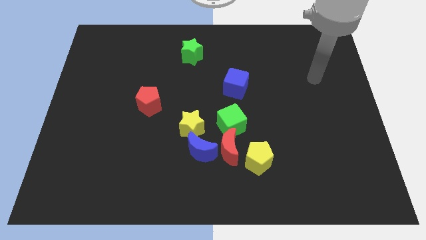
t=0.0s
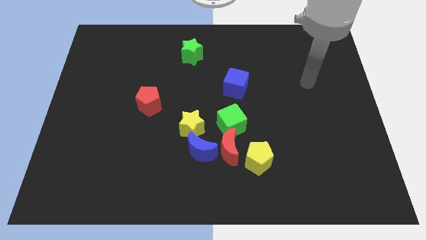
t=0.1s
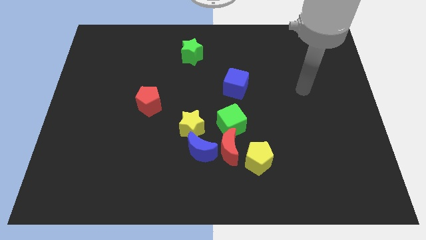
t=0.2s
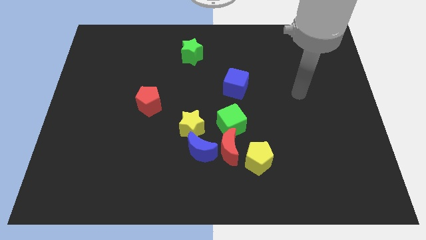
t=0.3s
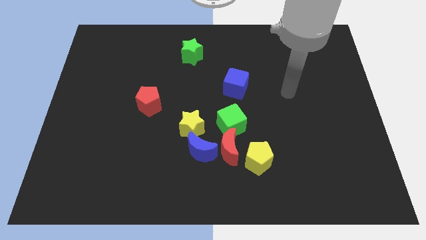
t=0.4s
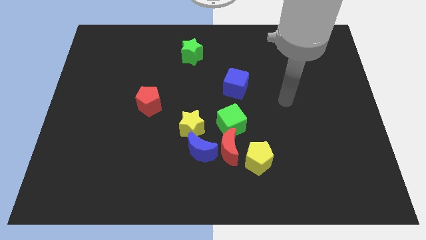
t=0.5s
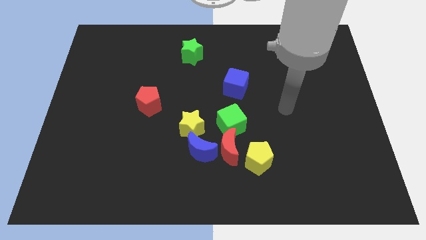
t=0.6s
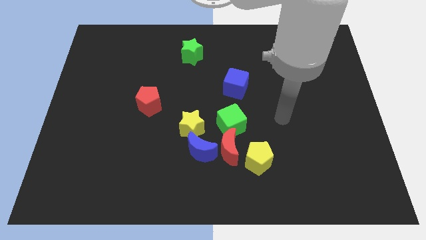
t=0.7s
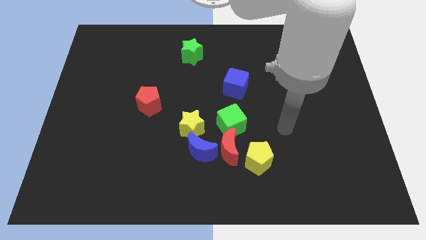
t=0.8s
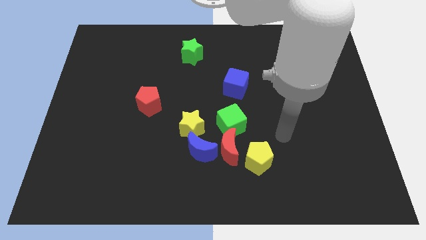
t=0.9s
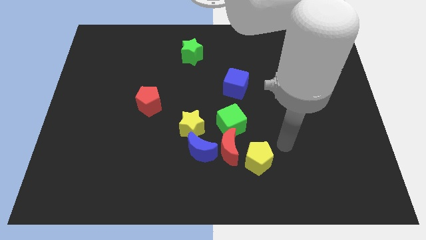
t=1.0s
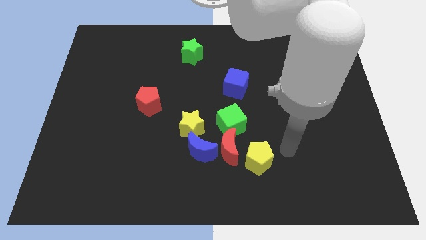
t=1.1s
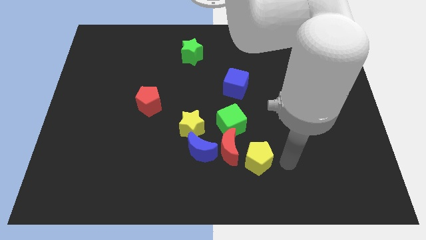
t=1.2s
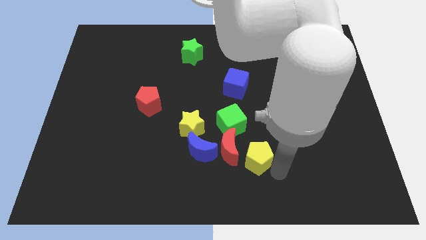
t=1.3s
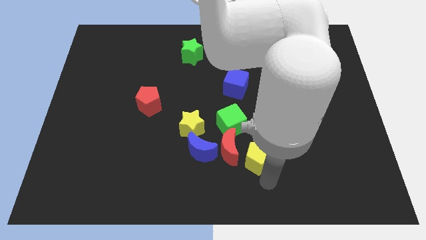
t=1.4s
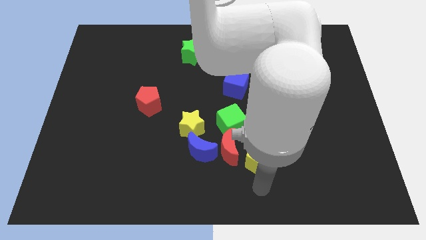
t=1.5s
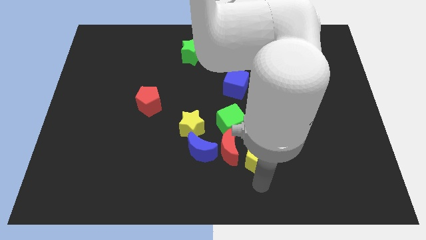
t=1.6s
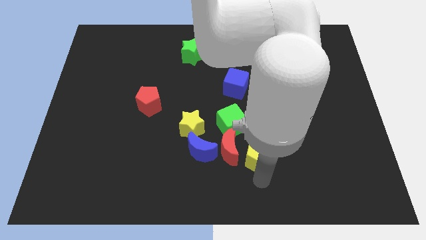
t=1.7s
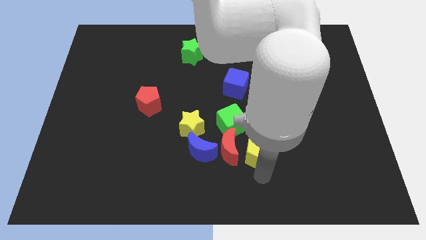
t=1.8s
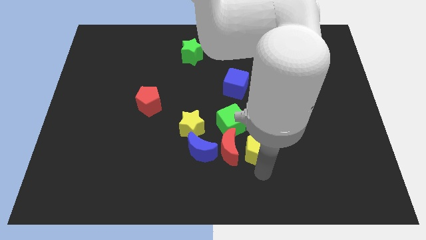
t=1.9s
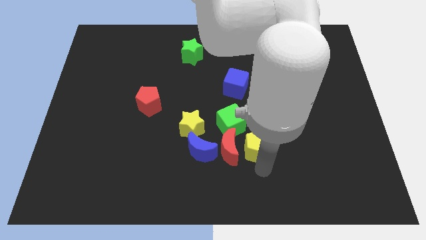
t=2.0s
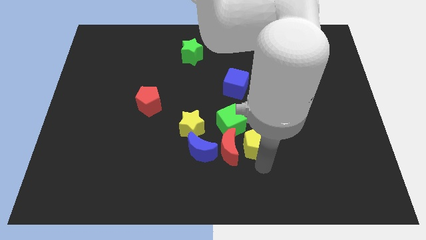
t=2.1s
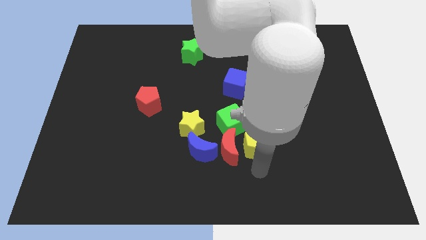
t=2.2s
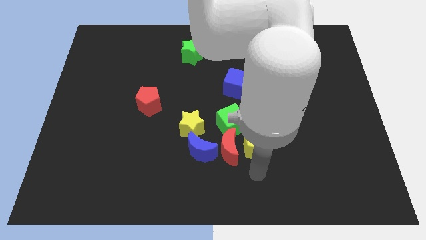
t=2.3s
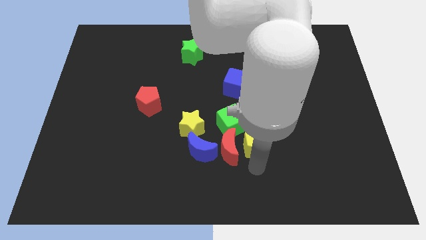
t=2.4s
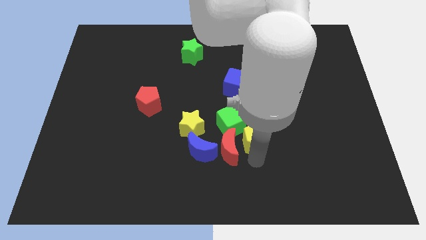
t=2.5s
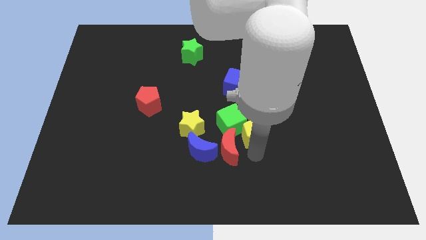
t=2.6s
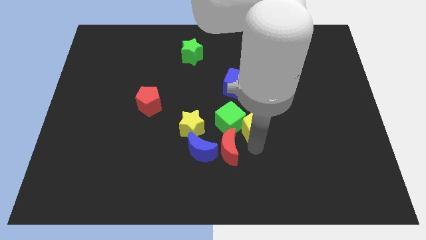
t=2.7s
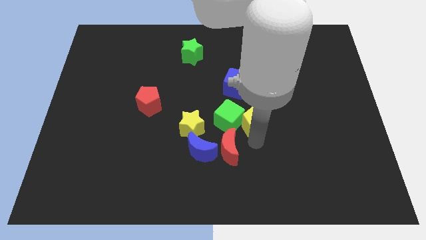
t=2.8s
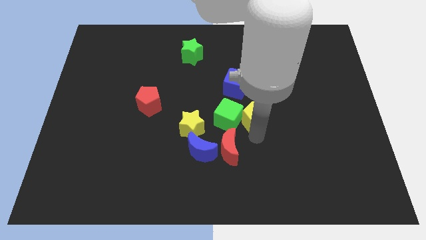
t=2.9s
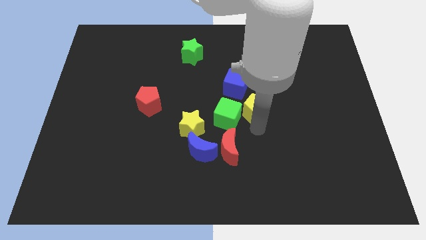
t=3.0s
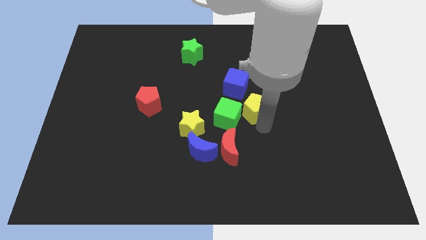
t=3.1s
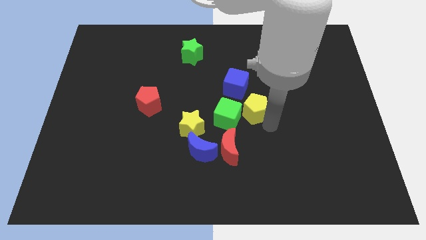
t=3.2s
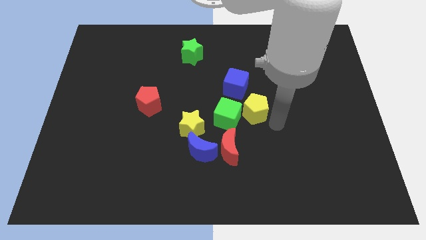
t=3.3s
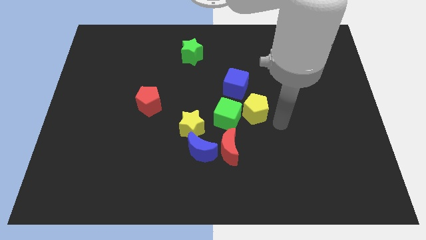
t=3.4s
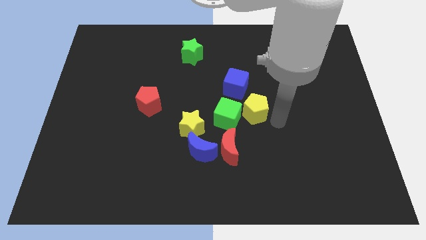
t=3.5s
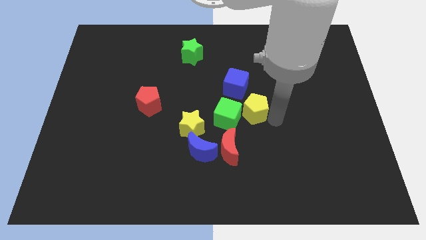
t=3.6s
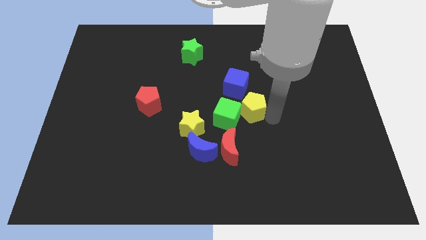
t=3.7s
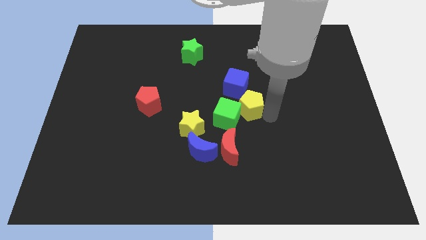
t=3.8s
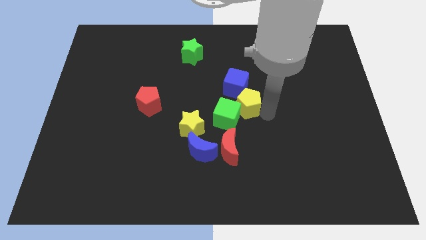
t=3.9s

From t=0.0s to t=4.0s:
move the yellow pentagon a little bit up and left

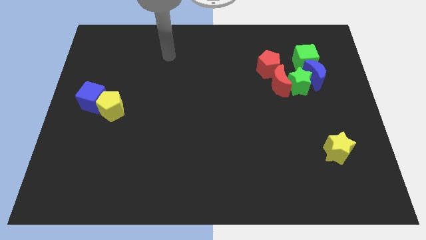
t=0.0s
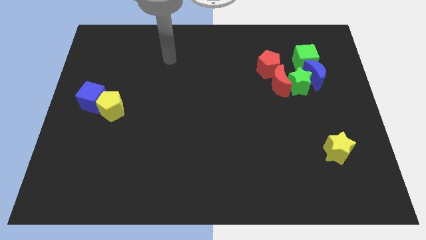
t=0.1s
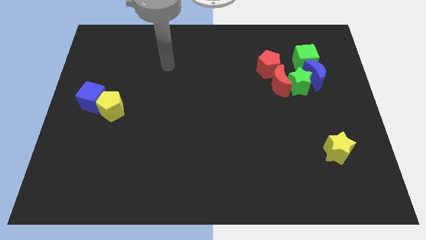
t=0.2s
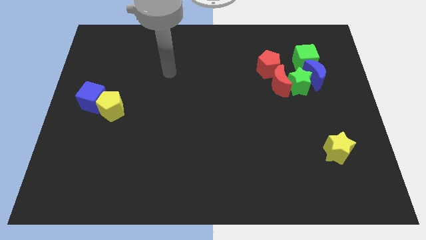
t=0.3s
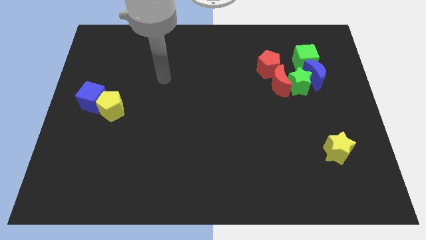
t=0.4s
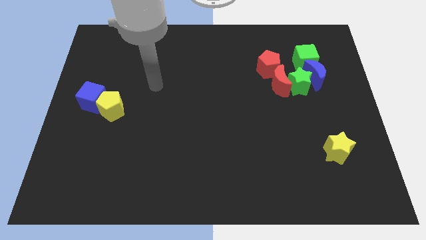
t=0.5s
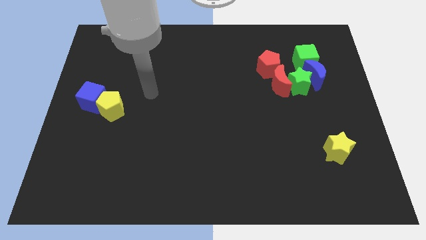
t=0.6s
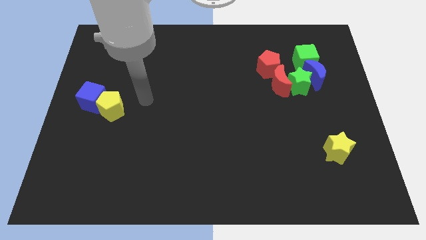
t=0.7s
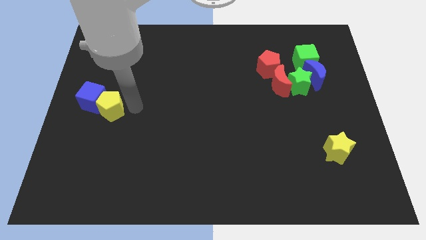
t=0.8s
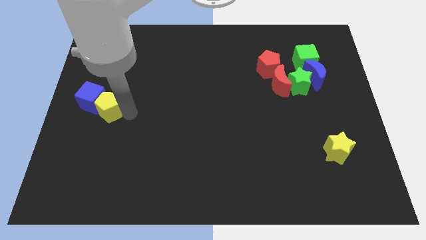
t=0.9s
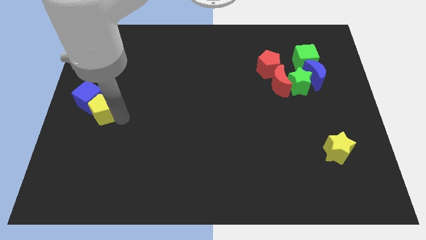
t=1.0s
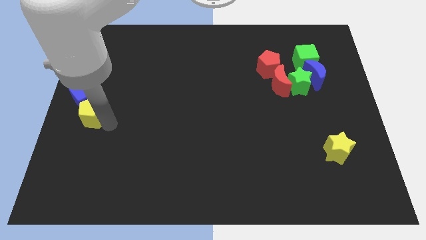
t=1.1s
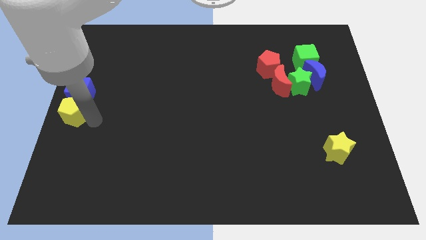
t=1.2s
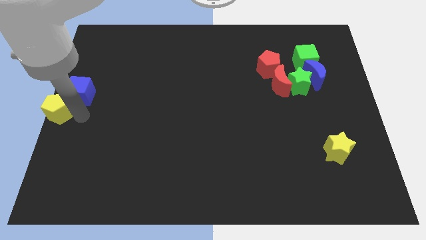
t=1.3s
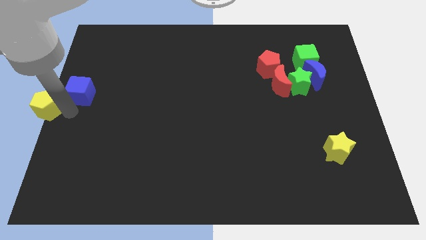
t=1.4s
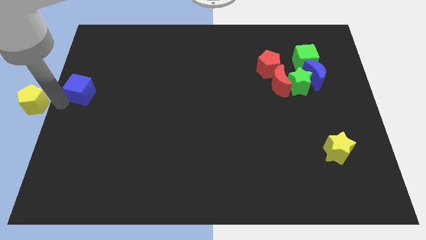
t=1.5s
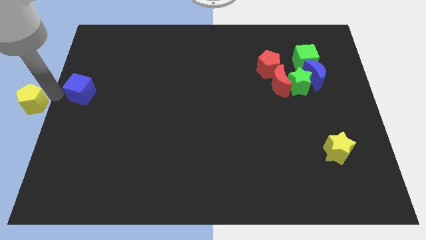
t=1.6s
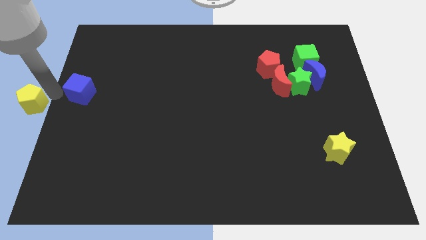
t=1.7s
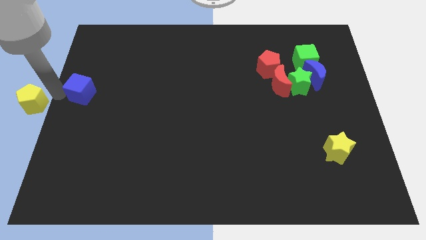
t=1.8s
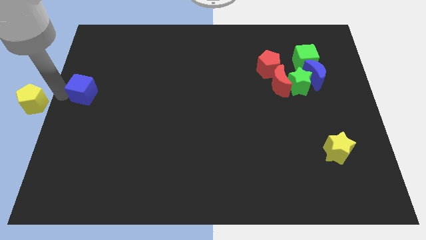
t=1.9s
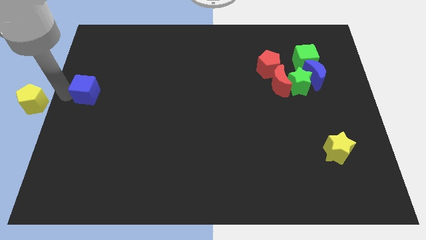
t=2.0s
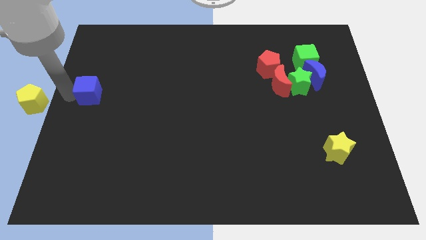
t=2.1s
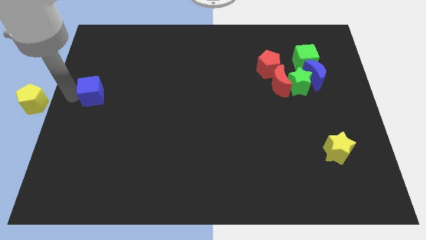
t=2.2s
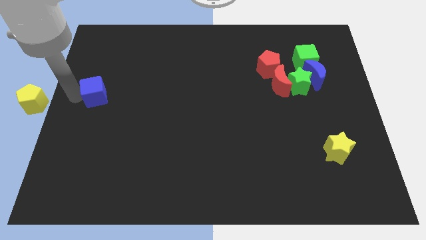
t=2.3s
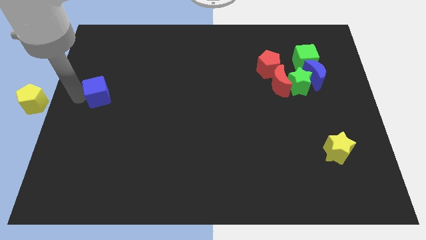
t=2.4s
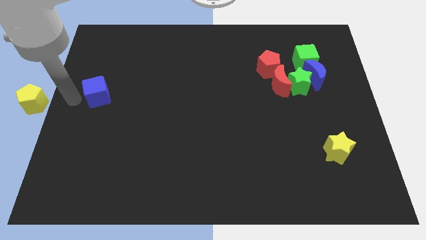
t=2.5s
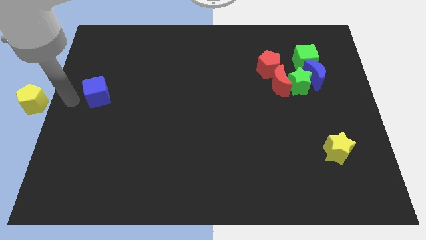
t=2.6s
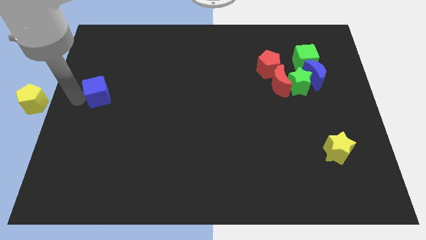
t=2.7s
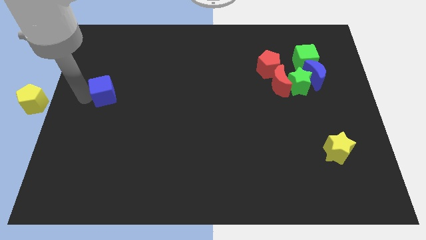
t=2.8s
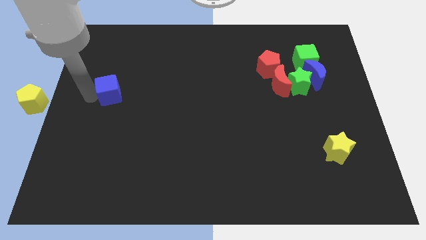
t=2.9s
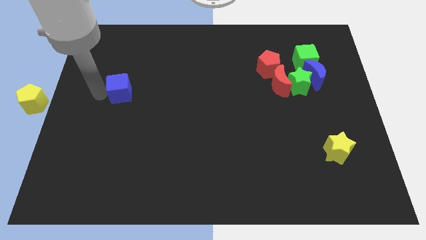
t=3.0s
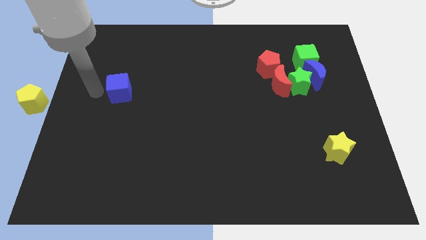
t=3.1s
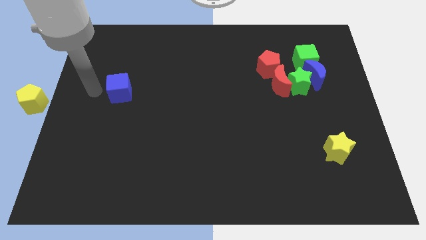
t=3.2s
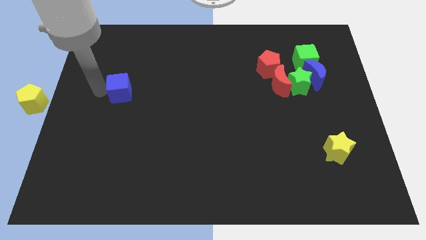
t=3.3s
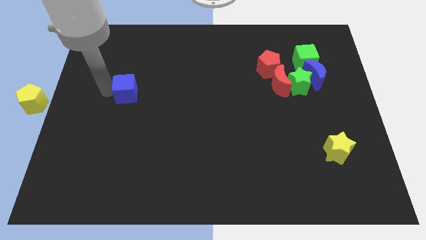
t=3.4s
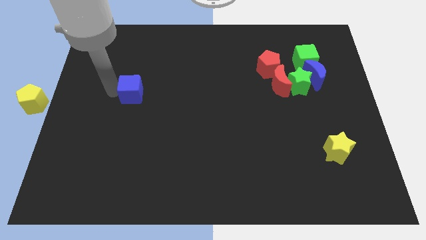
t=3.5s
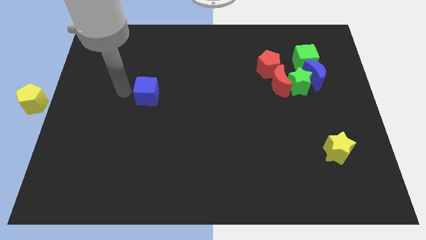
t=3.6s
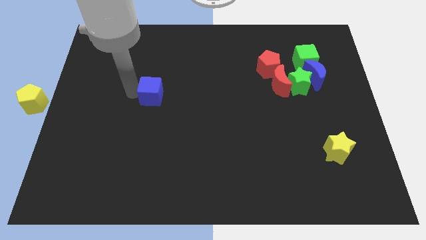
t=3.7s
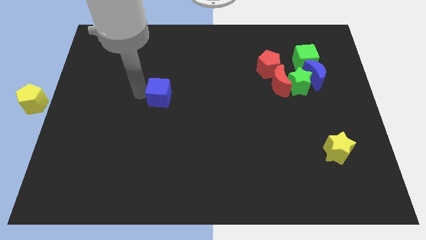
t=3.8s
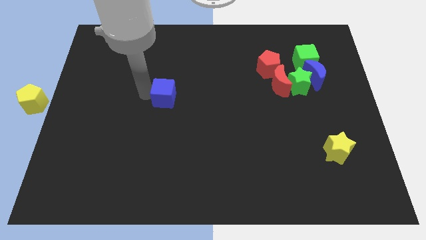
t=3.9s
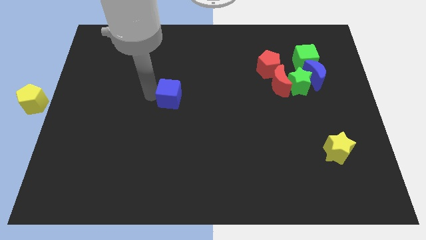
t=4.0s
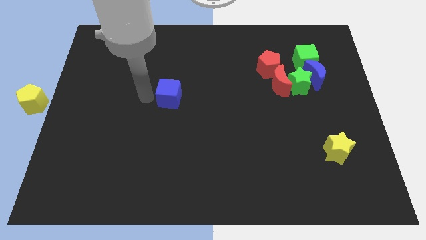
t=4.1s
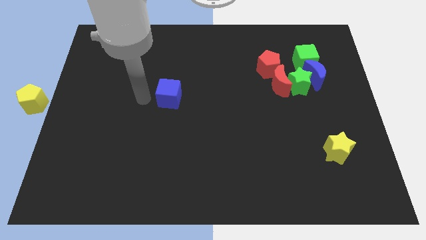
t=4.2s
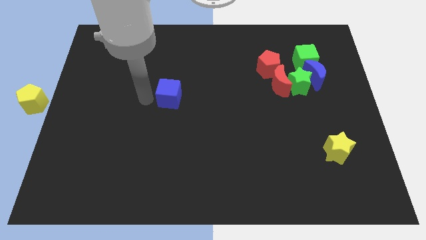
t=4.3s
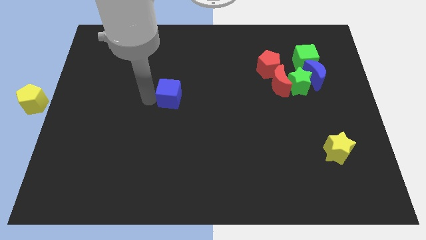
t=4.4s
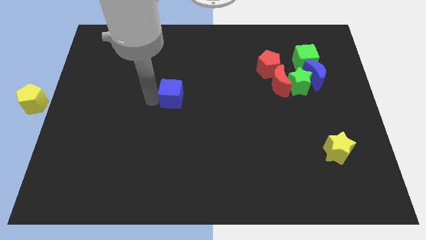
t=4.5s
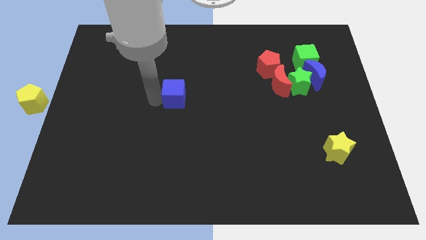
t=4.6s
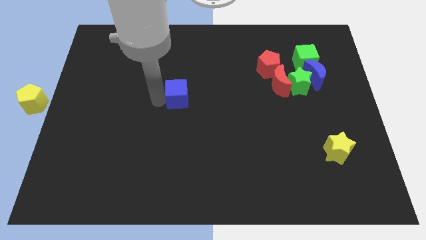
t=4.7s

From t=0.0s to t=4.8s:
move the blue cube right

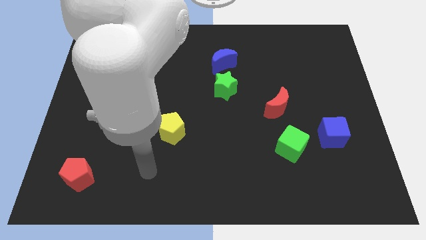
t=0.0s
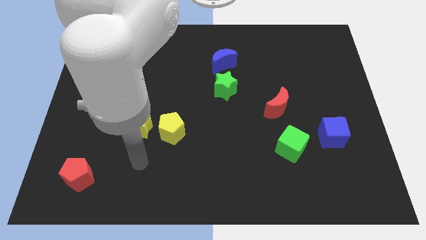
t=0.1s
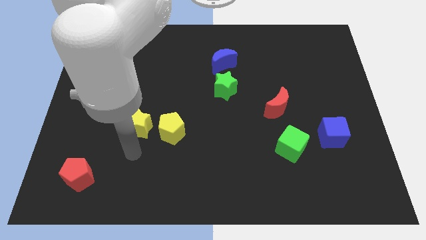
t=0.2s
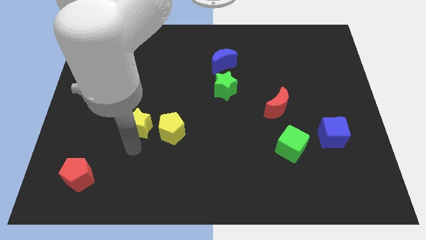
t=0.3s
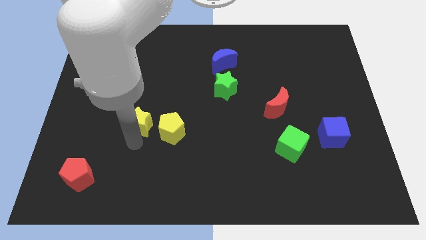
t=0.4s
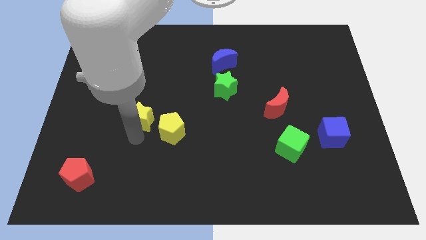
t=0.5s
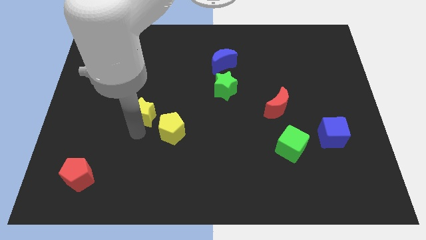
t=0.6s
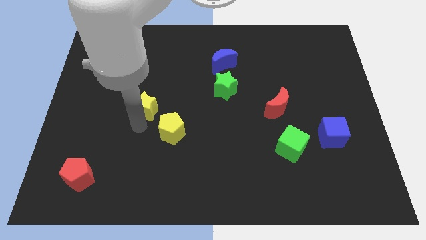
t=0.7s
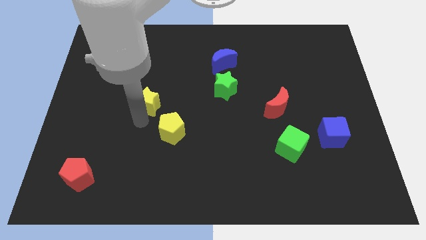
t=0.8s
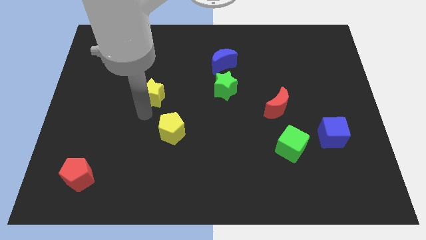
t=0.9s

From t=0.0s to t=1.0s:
slide the yellow star a little bit upwards
